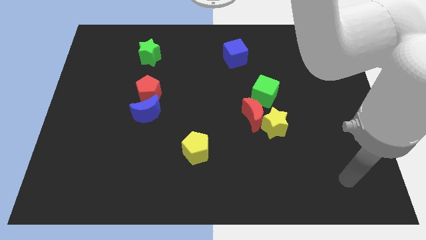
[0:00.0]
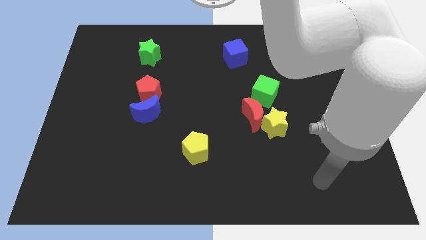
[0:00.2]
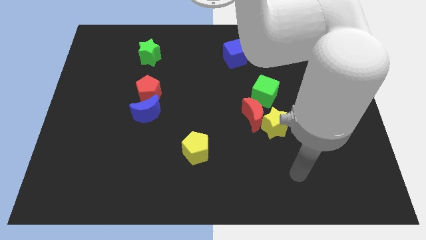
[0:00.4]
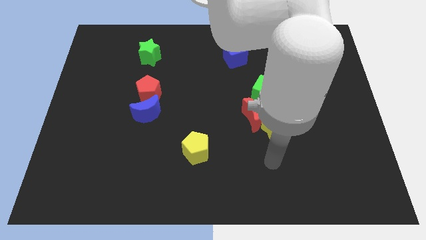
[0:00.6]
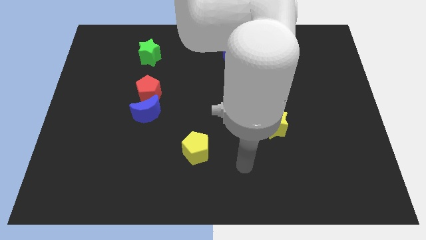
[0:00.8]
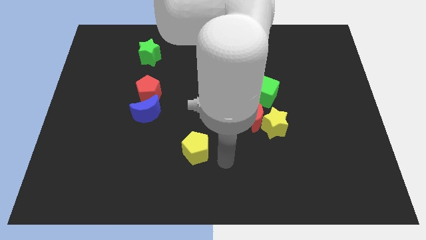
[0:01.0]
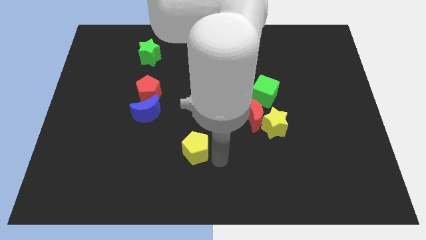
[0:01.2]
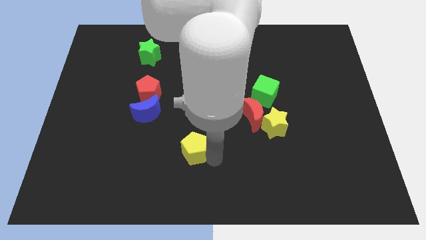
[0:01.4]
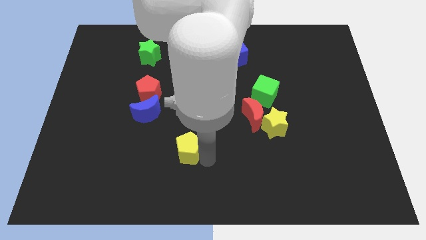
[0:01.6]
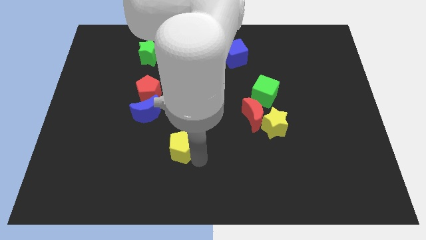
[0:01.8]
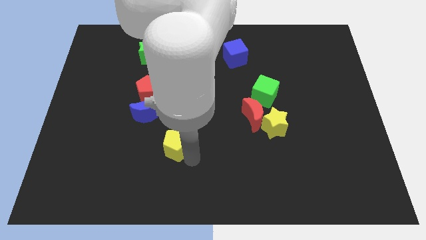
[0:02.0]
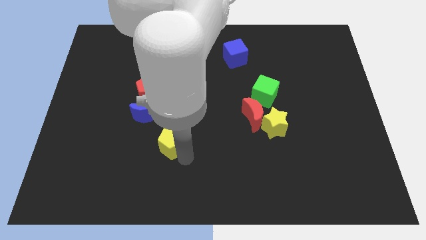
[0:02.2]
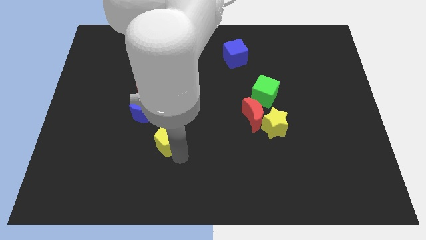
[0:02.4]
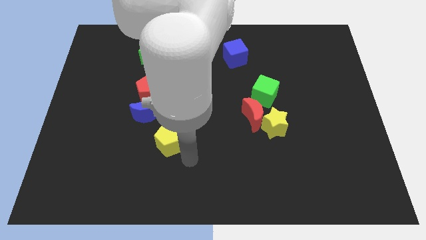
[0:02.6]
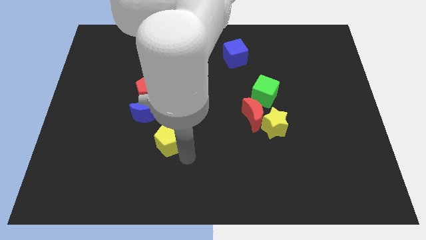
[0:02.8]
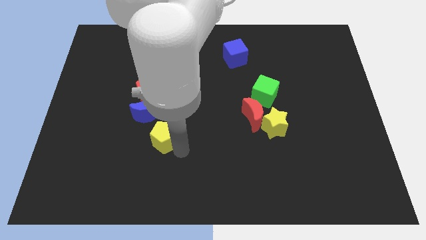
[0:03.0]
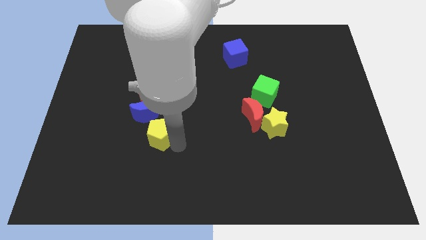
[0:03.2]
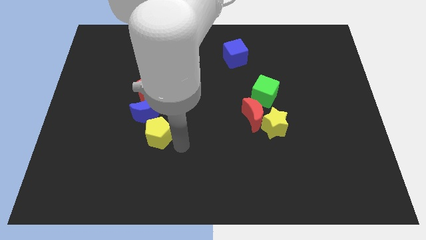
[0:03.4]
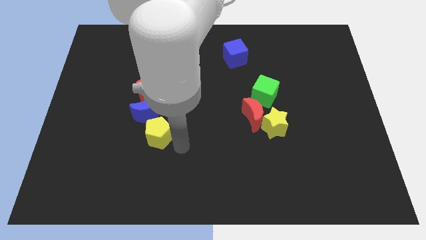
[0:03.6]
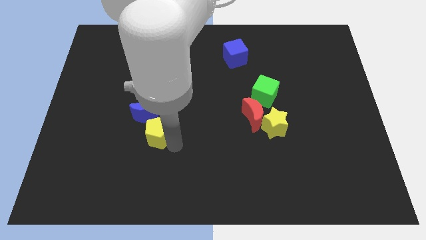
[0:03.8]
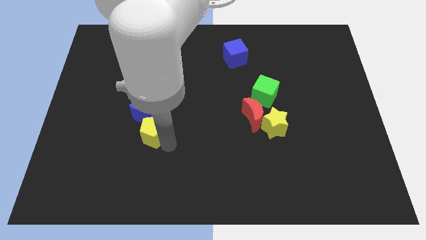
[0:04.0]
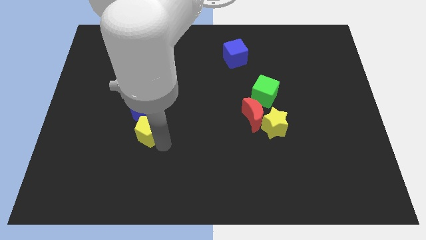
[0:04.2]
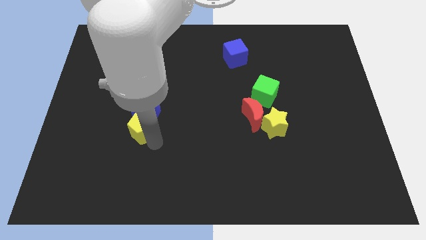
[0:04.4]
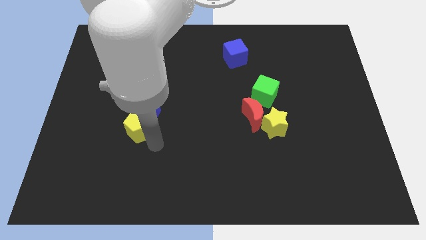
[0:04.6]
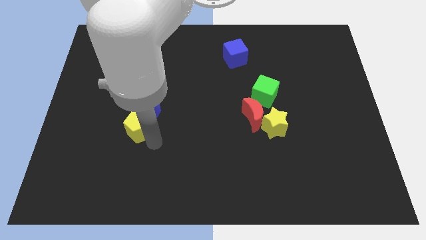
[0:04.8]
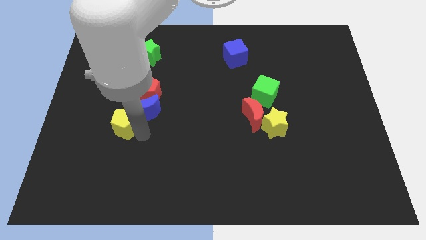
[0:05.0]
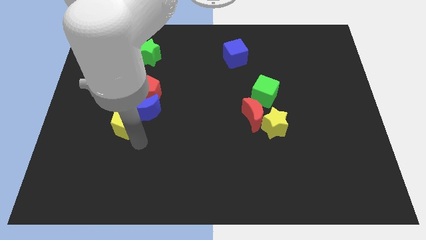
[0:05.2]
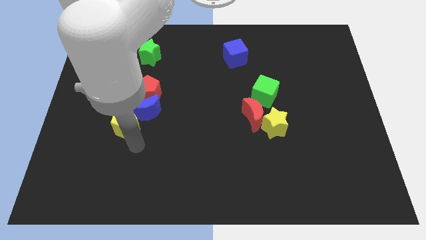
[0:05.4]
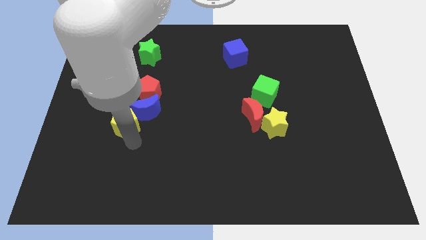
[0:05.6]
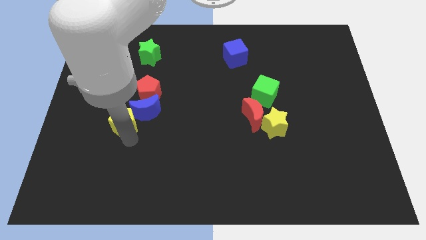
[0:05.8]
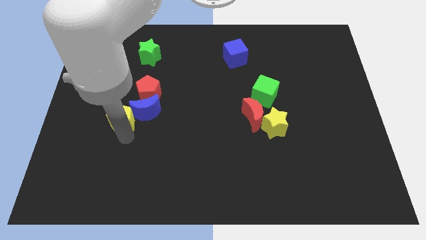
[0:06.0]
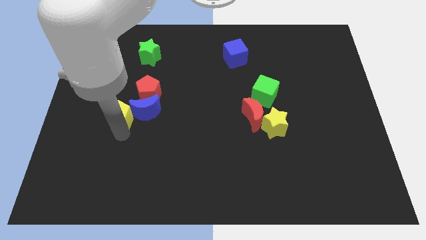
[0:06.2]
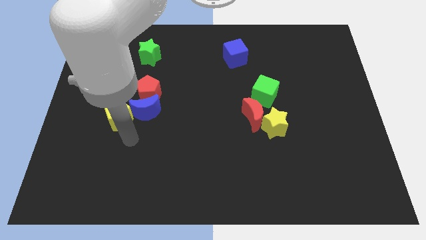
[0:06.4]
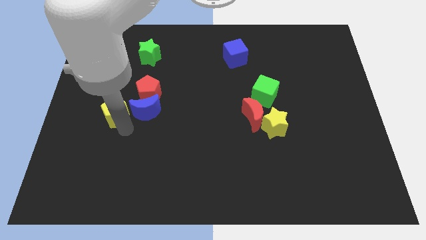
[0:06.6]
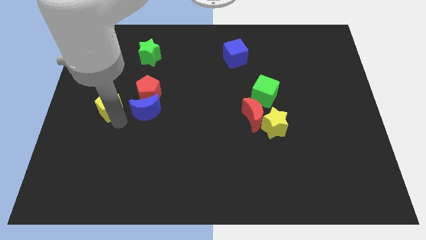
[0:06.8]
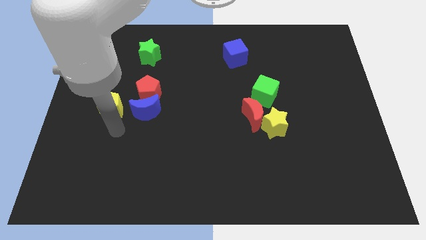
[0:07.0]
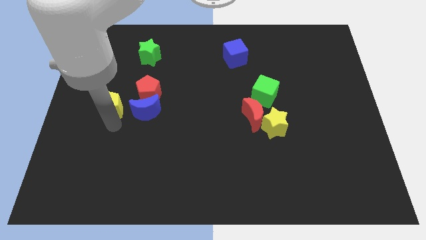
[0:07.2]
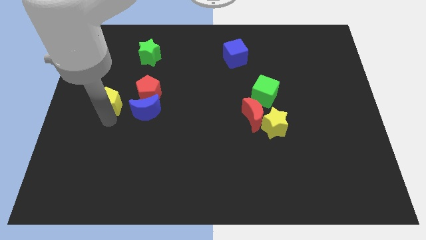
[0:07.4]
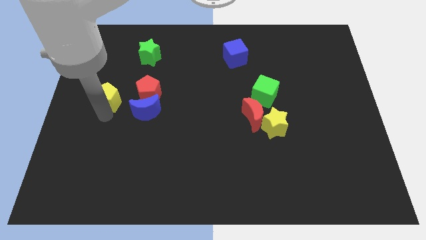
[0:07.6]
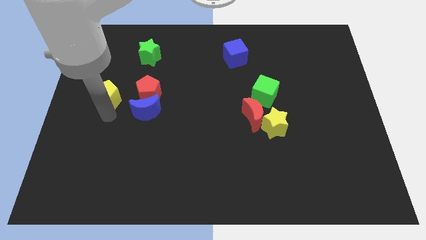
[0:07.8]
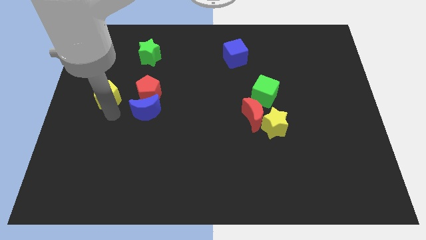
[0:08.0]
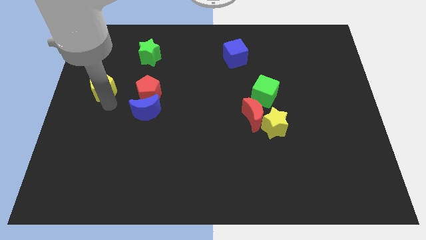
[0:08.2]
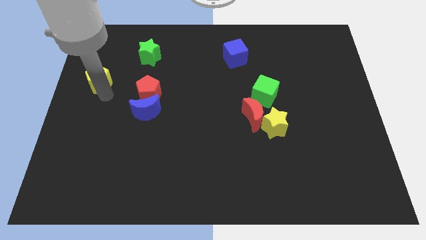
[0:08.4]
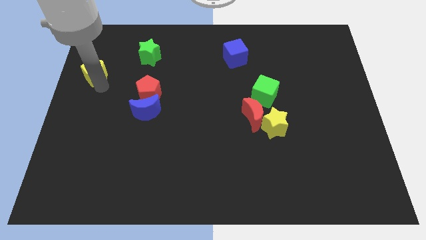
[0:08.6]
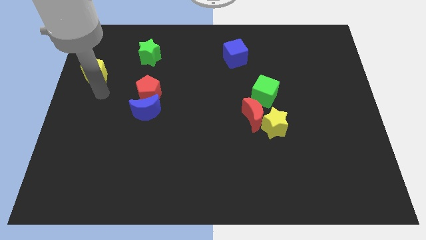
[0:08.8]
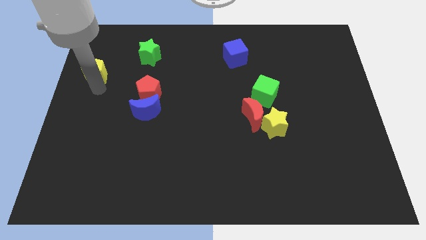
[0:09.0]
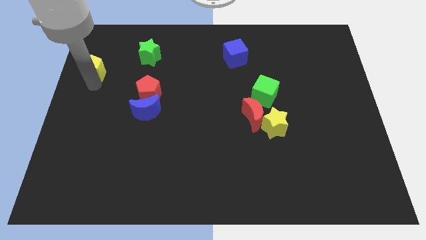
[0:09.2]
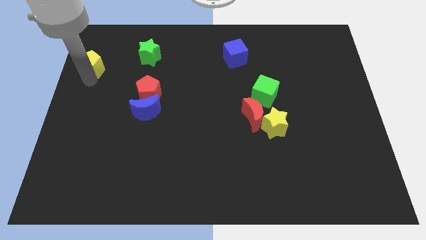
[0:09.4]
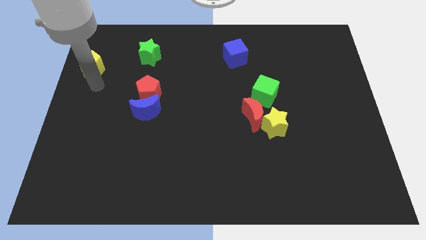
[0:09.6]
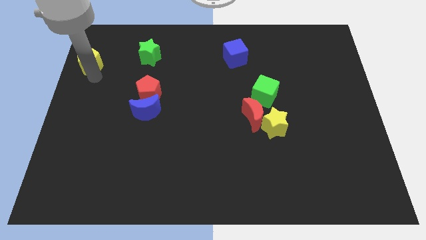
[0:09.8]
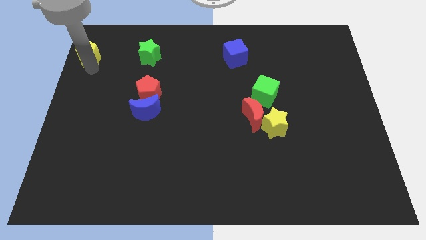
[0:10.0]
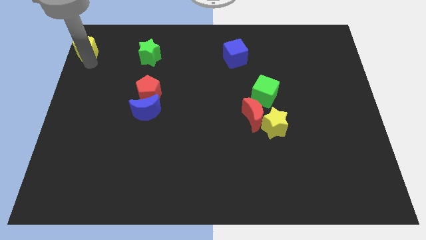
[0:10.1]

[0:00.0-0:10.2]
push the yellow pentagon to the top left corner

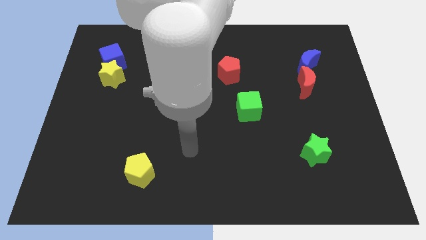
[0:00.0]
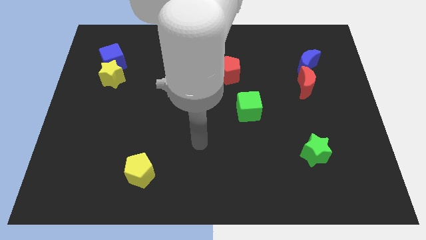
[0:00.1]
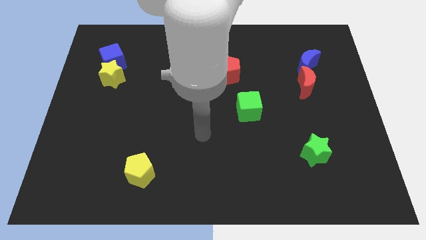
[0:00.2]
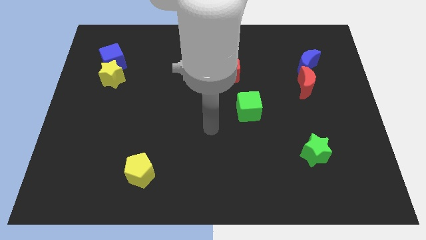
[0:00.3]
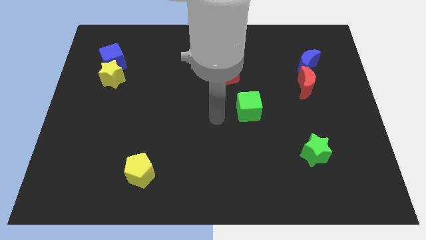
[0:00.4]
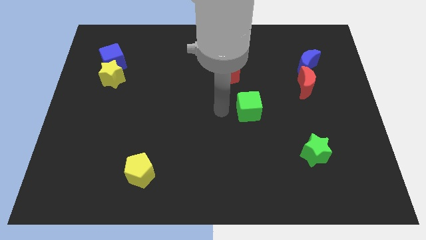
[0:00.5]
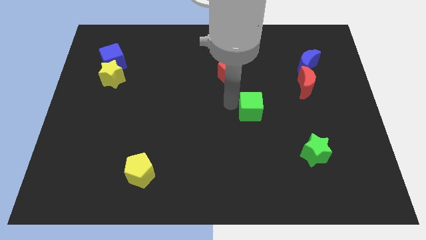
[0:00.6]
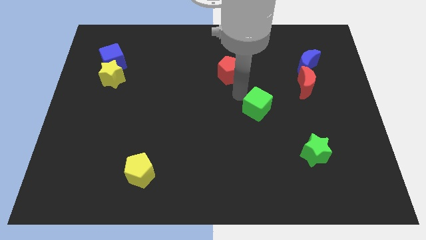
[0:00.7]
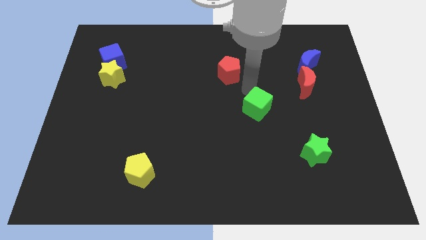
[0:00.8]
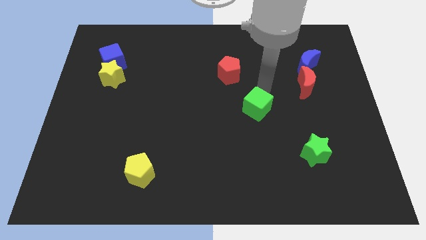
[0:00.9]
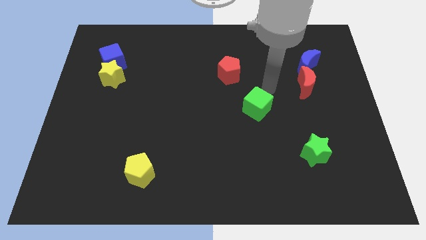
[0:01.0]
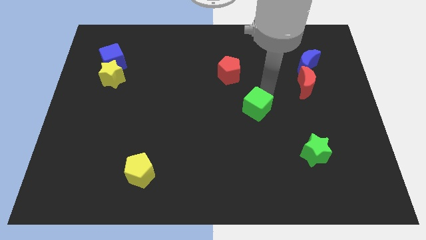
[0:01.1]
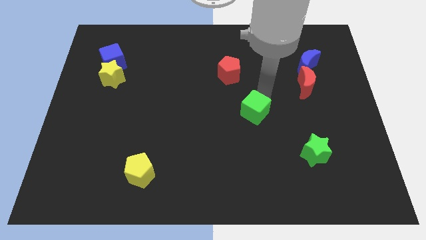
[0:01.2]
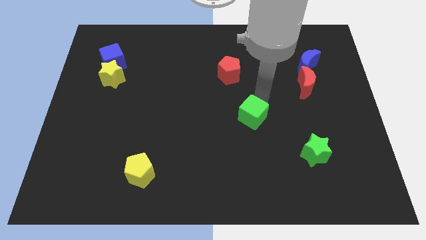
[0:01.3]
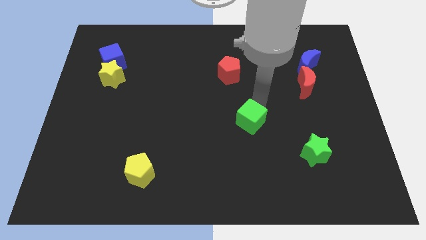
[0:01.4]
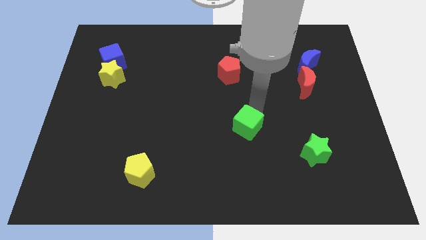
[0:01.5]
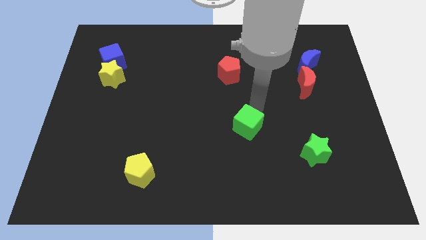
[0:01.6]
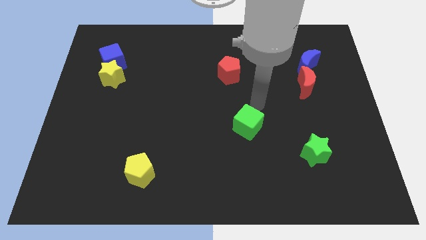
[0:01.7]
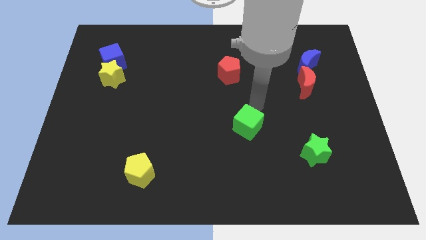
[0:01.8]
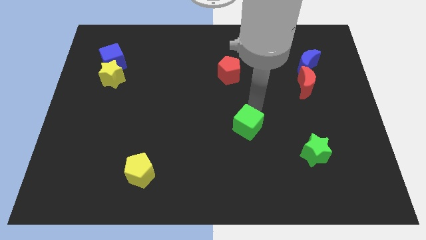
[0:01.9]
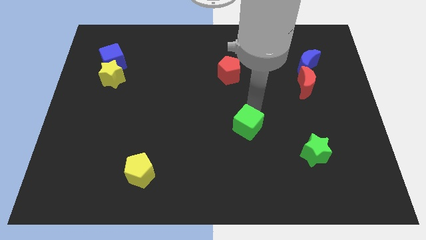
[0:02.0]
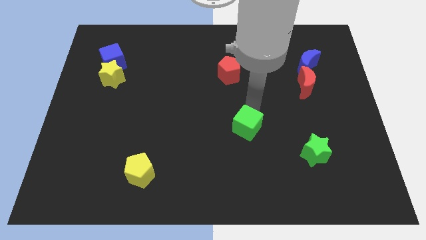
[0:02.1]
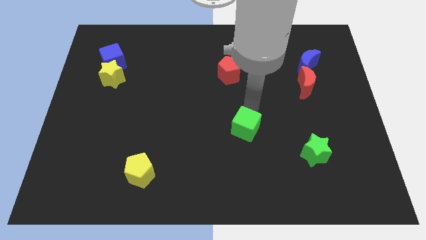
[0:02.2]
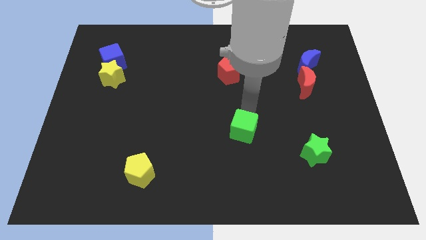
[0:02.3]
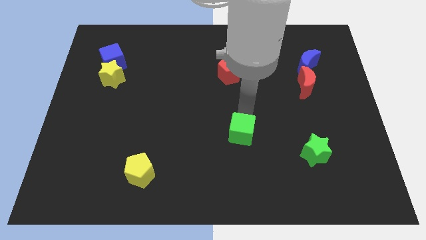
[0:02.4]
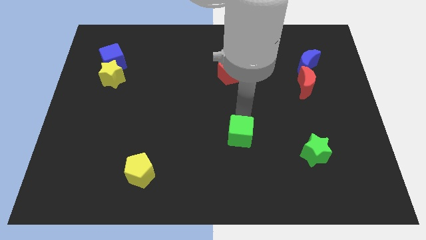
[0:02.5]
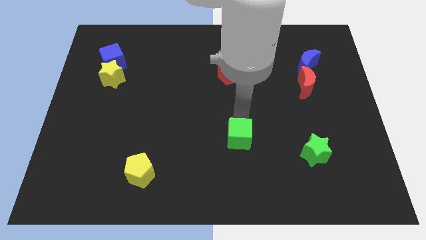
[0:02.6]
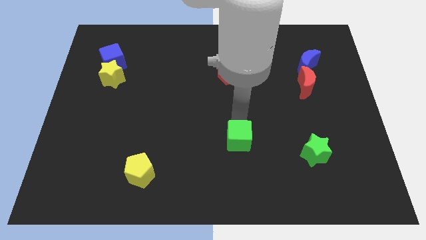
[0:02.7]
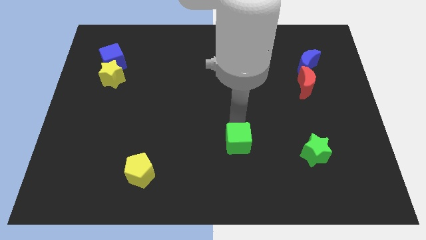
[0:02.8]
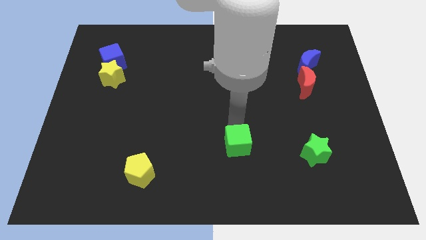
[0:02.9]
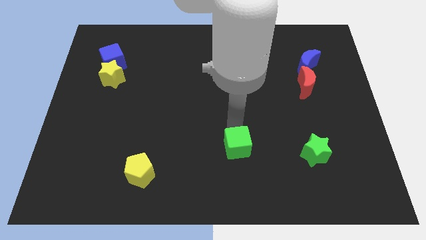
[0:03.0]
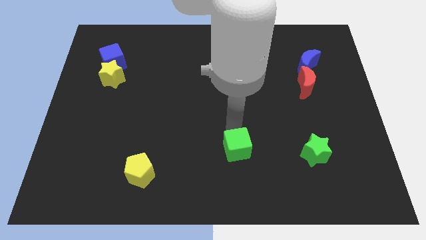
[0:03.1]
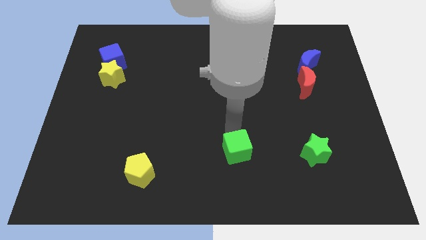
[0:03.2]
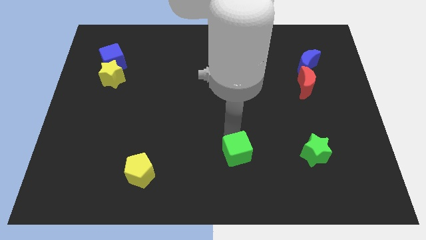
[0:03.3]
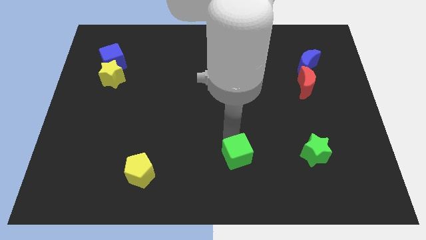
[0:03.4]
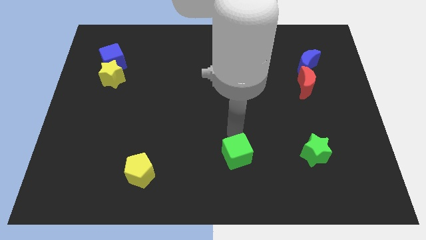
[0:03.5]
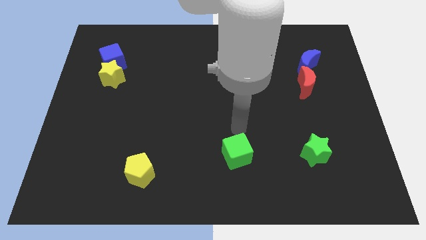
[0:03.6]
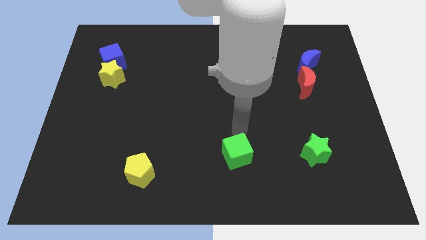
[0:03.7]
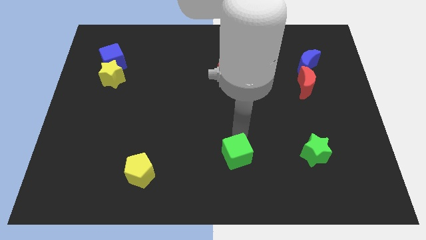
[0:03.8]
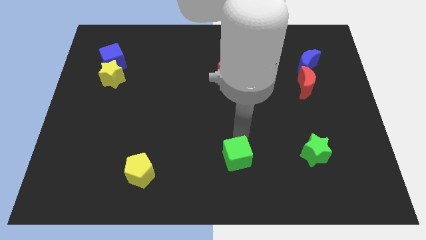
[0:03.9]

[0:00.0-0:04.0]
put the green cube to the bottom
